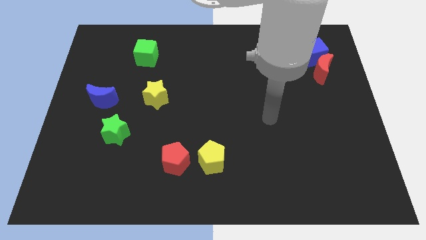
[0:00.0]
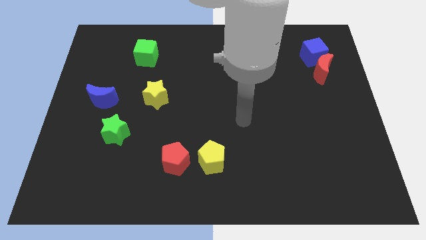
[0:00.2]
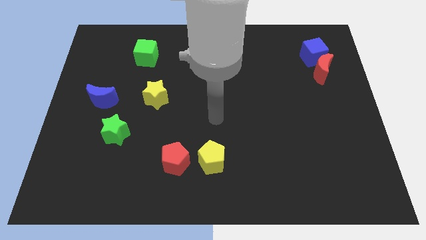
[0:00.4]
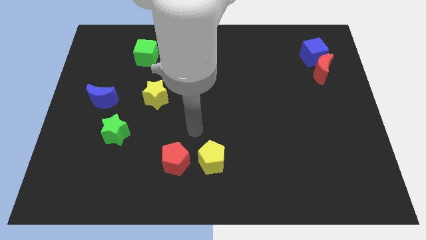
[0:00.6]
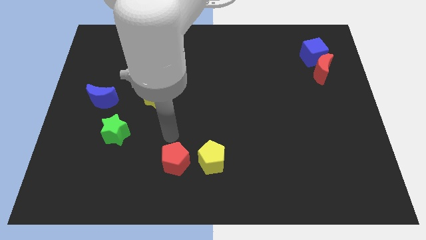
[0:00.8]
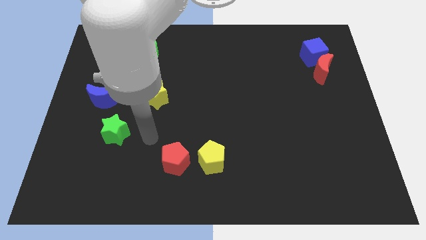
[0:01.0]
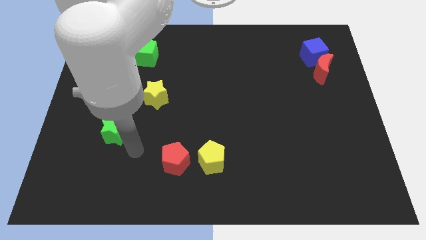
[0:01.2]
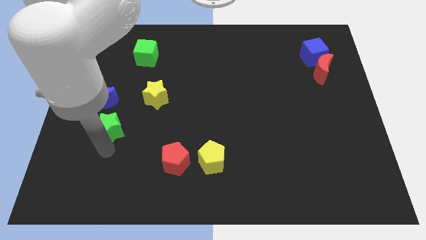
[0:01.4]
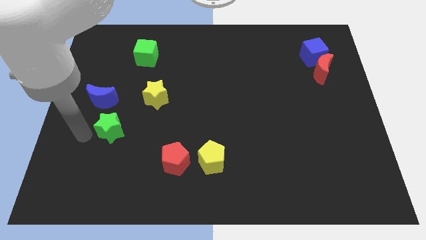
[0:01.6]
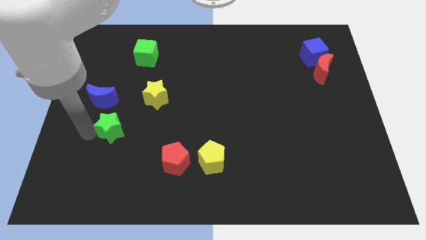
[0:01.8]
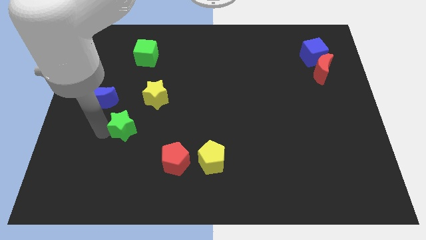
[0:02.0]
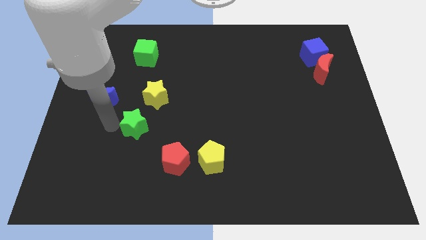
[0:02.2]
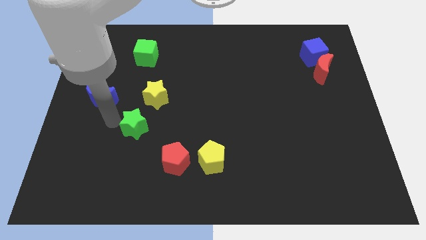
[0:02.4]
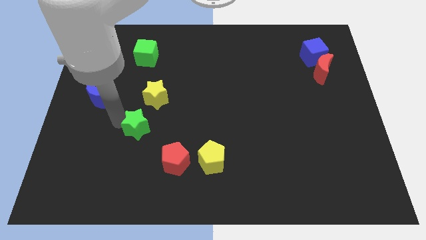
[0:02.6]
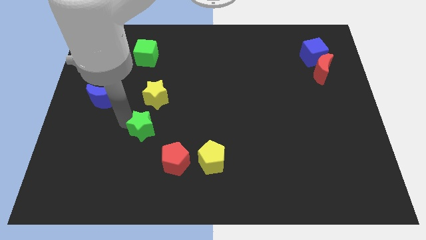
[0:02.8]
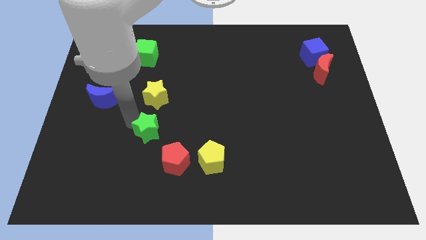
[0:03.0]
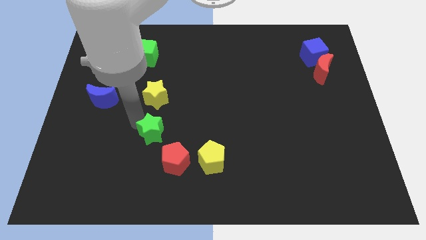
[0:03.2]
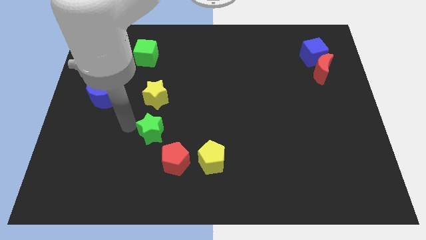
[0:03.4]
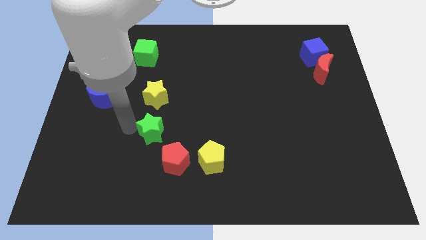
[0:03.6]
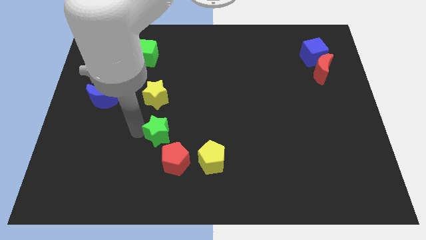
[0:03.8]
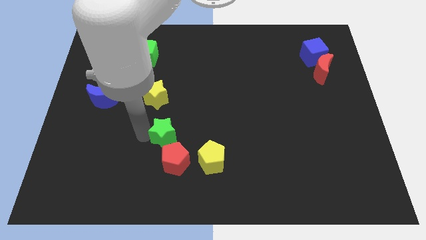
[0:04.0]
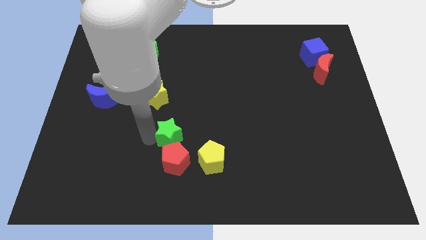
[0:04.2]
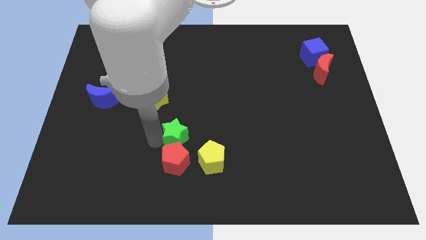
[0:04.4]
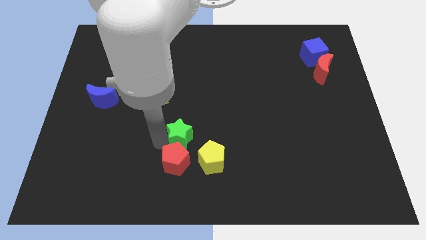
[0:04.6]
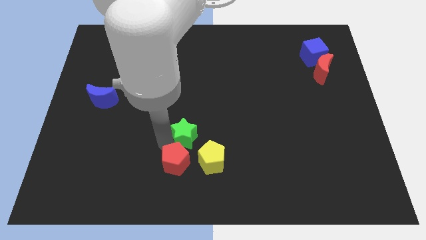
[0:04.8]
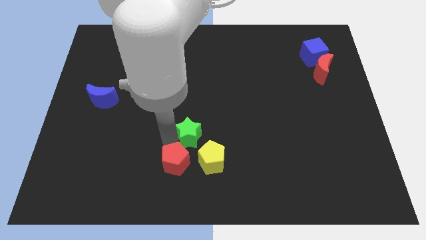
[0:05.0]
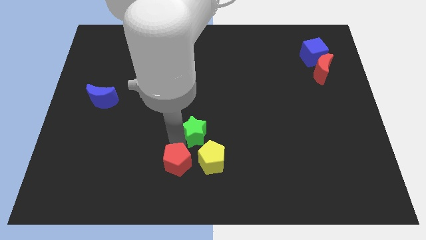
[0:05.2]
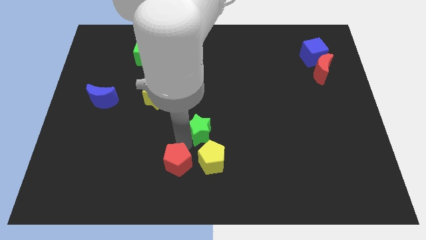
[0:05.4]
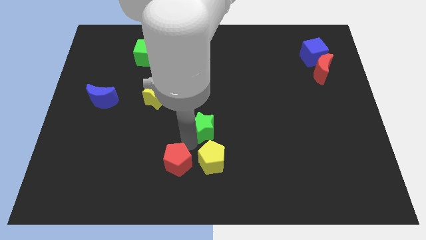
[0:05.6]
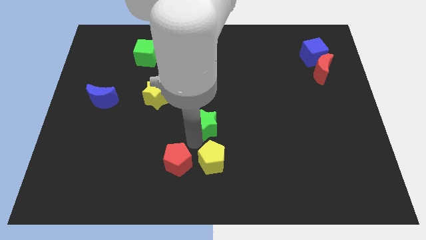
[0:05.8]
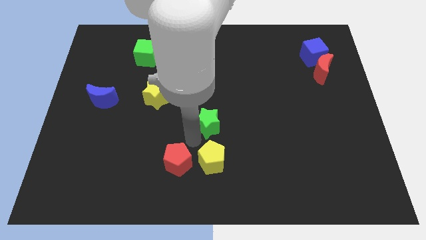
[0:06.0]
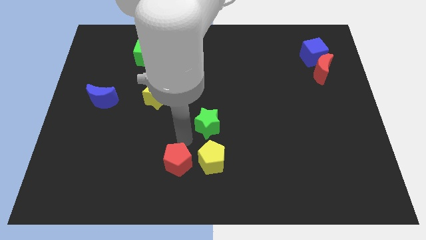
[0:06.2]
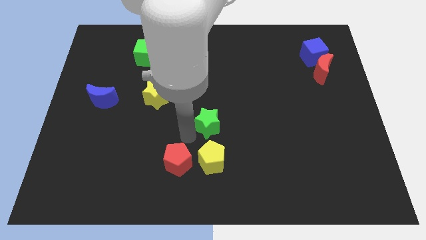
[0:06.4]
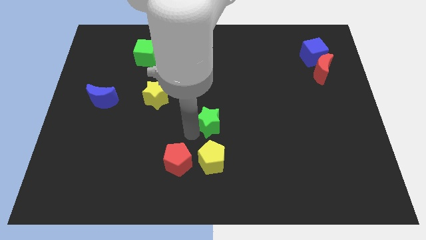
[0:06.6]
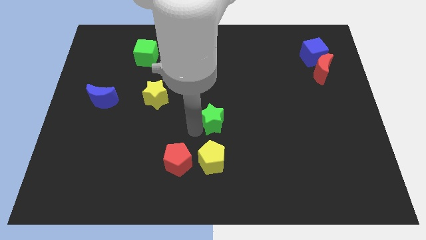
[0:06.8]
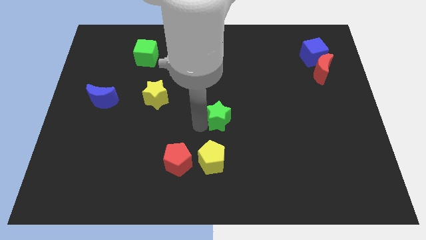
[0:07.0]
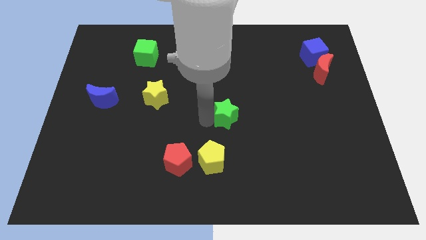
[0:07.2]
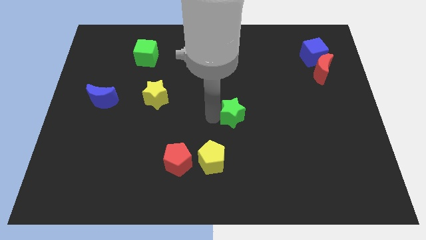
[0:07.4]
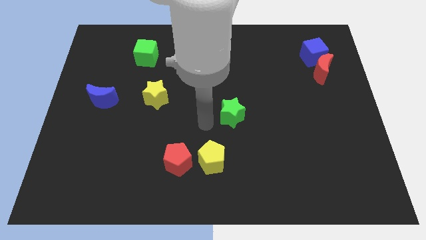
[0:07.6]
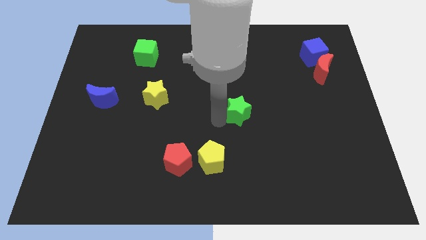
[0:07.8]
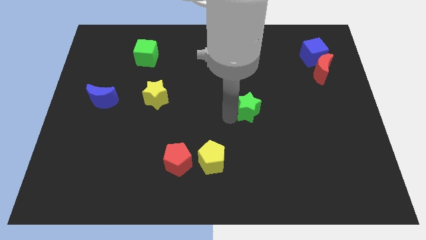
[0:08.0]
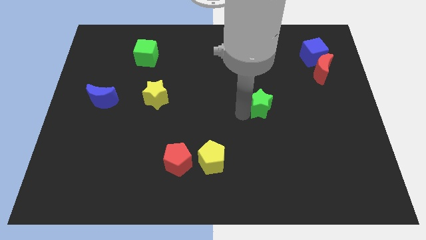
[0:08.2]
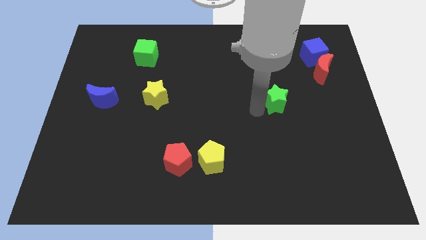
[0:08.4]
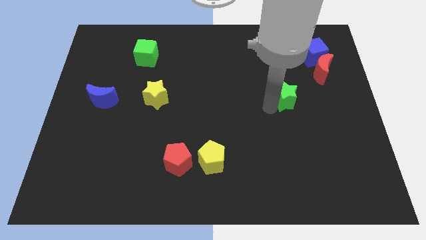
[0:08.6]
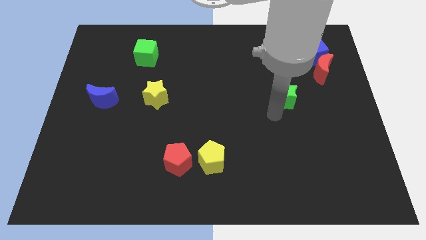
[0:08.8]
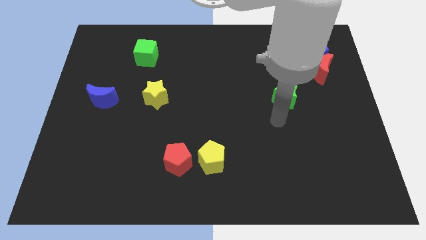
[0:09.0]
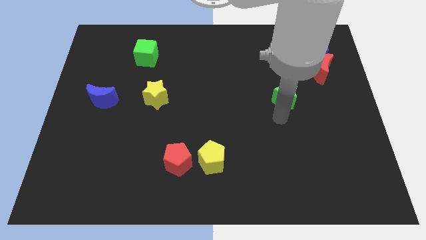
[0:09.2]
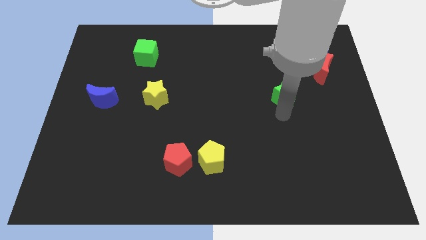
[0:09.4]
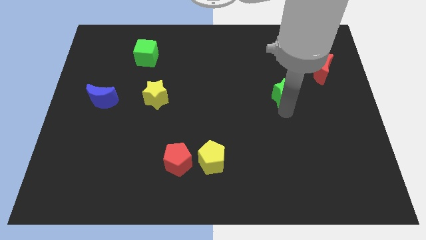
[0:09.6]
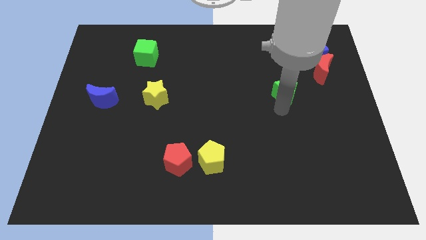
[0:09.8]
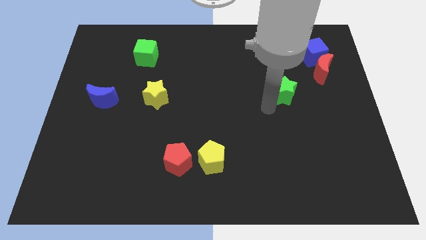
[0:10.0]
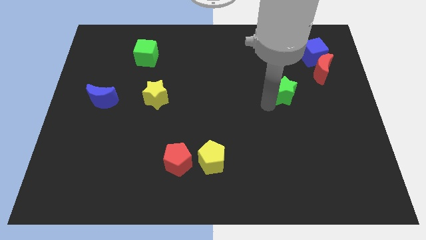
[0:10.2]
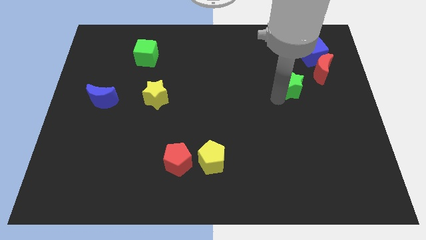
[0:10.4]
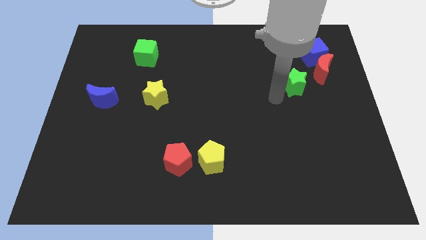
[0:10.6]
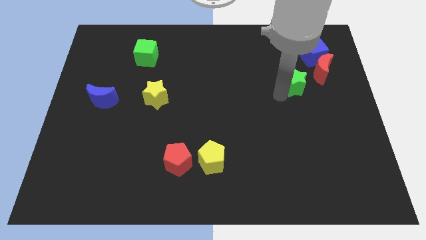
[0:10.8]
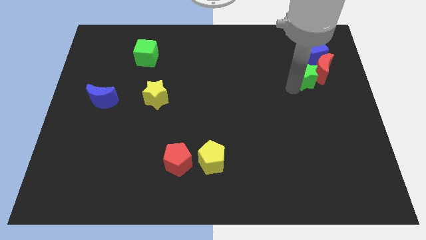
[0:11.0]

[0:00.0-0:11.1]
slide the green star close to the red moon

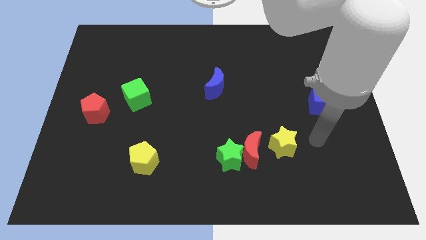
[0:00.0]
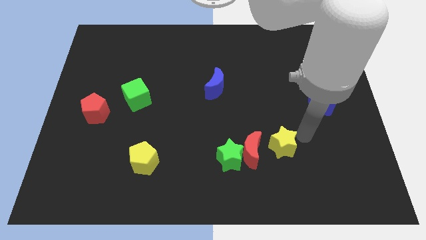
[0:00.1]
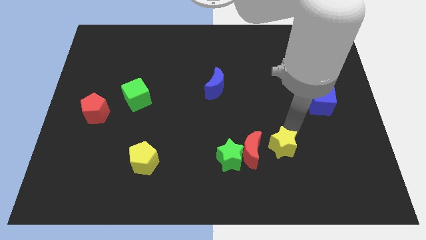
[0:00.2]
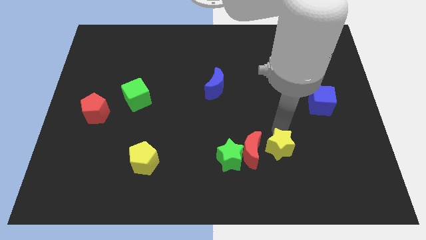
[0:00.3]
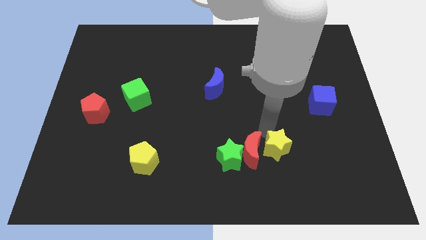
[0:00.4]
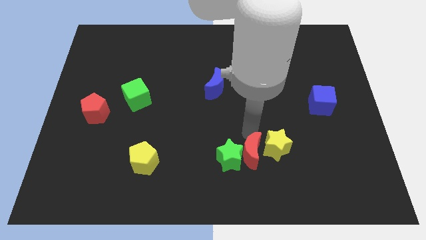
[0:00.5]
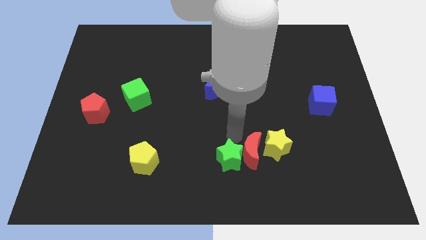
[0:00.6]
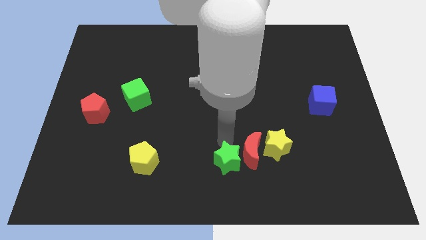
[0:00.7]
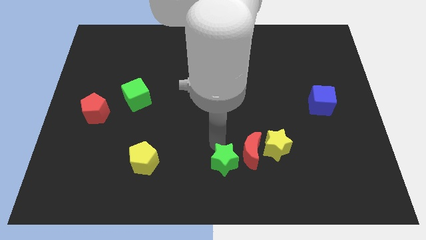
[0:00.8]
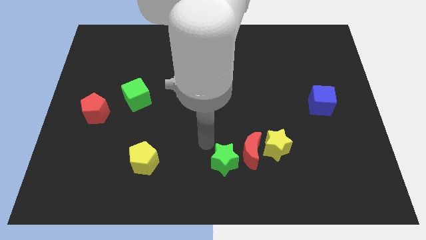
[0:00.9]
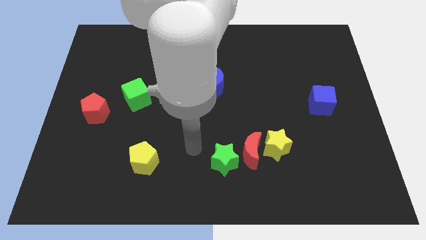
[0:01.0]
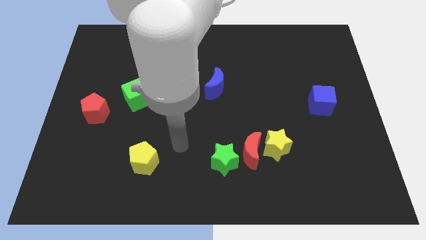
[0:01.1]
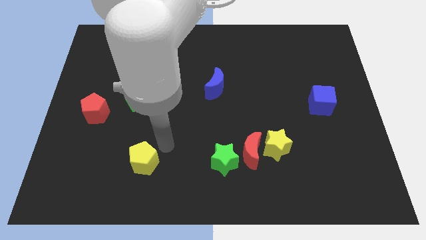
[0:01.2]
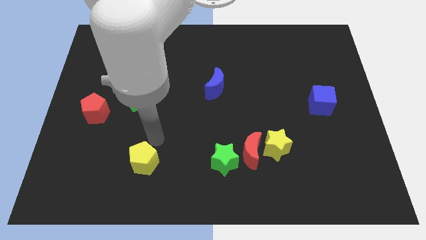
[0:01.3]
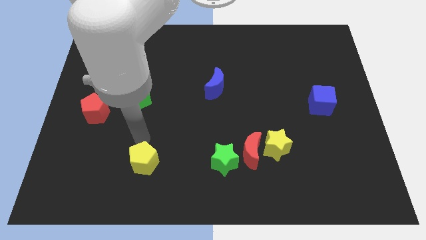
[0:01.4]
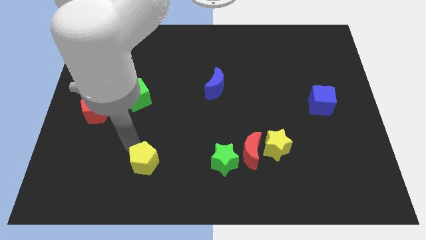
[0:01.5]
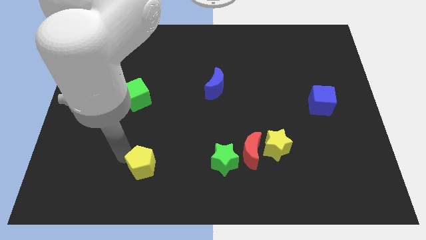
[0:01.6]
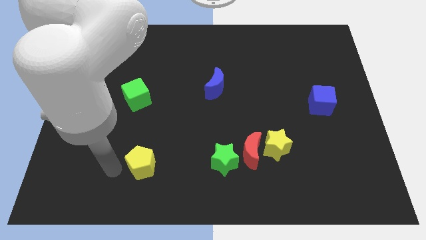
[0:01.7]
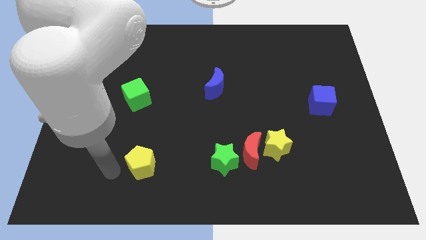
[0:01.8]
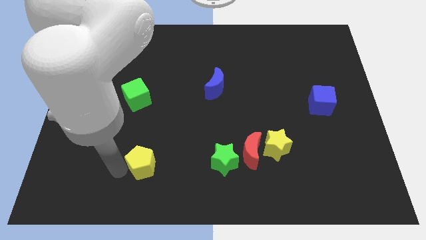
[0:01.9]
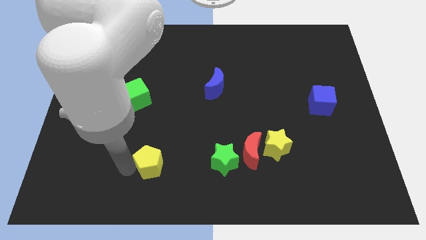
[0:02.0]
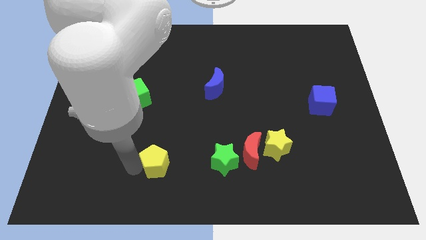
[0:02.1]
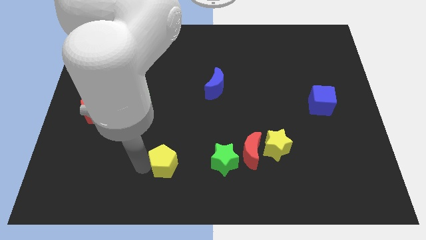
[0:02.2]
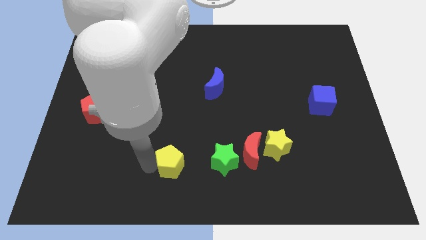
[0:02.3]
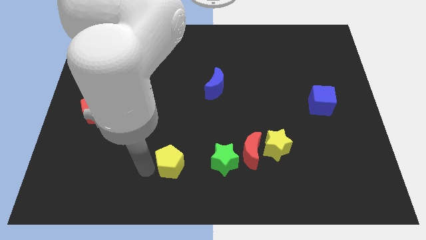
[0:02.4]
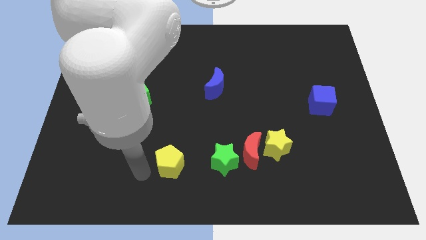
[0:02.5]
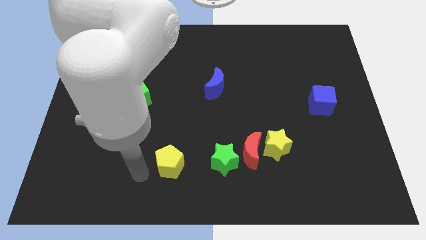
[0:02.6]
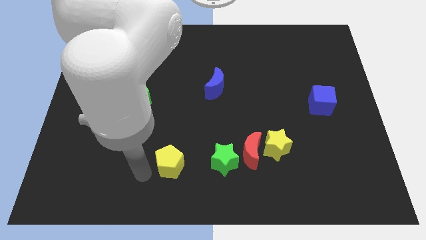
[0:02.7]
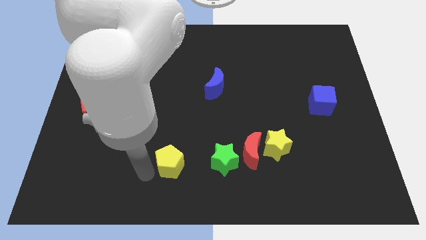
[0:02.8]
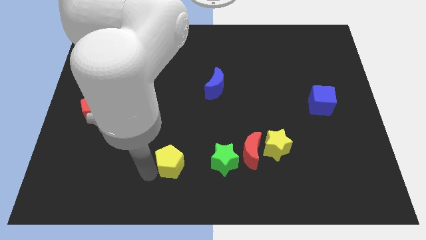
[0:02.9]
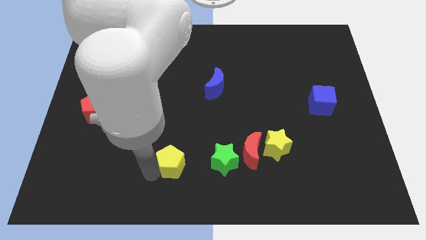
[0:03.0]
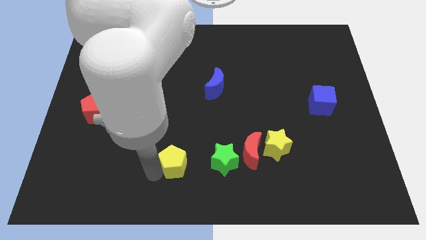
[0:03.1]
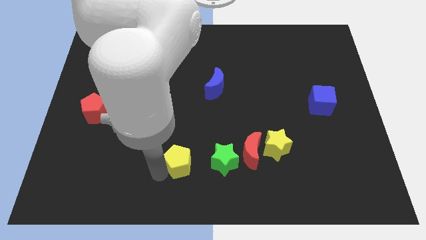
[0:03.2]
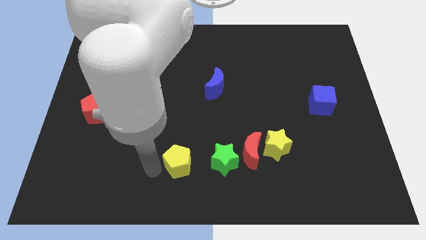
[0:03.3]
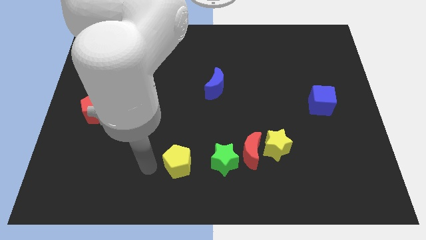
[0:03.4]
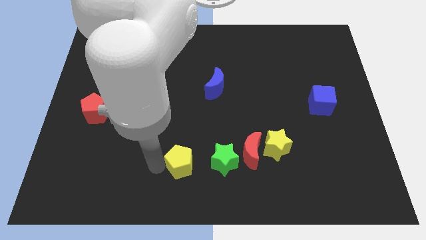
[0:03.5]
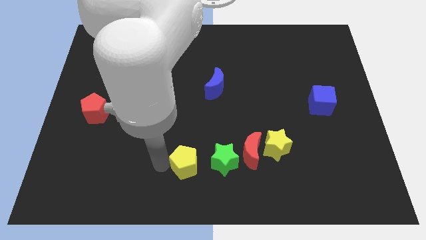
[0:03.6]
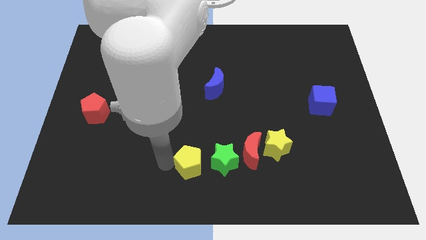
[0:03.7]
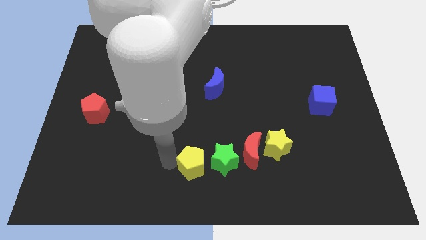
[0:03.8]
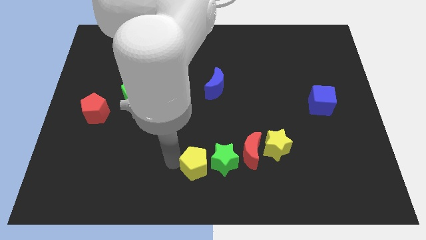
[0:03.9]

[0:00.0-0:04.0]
slide the yellow pentagon to the green star
